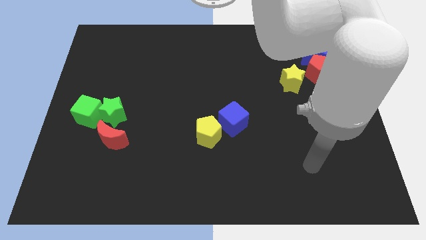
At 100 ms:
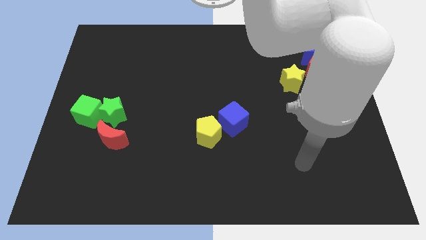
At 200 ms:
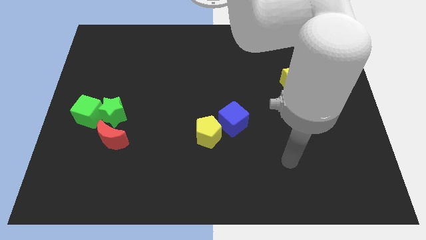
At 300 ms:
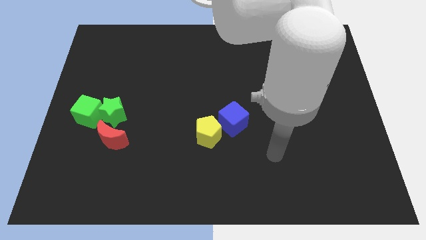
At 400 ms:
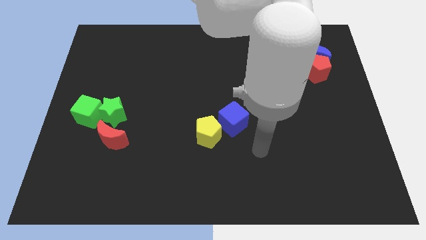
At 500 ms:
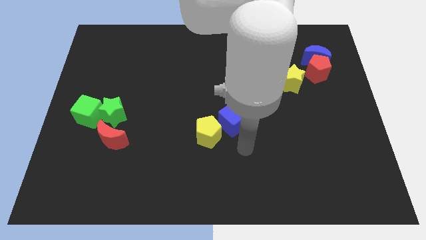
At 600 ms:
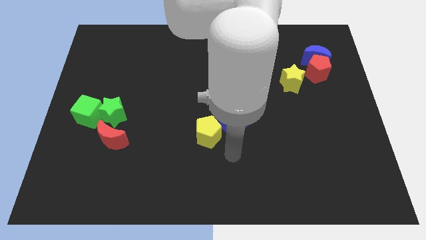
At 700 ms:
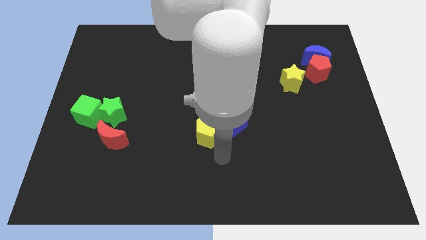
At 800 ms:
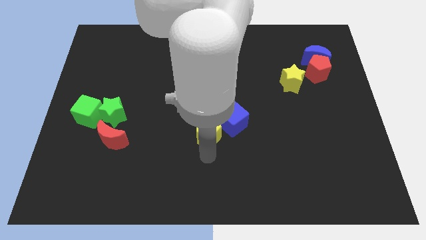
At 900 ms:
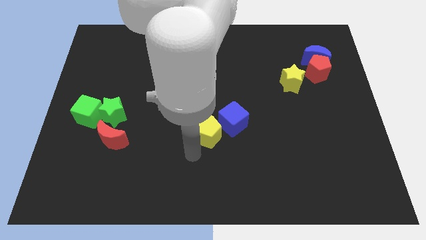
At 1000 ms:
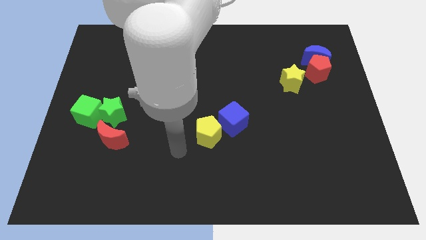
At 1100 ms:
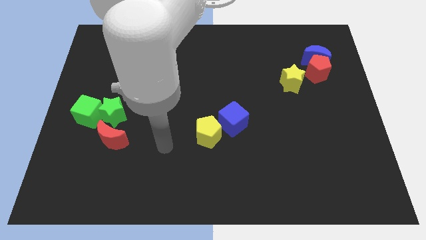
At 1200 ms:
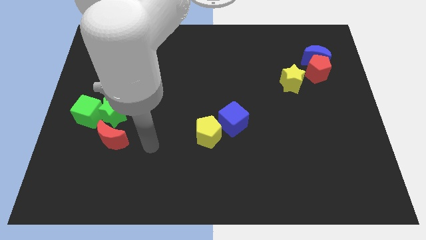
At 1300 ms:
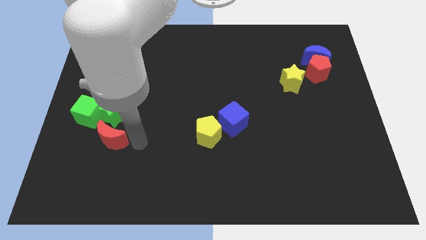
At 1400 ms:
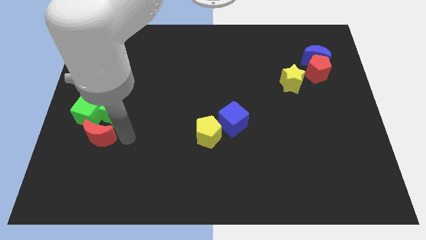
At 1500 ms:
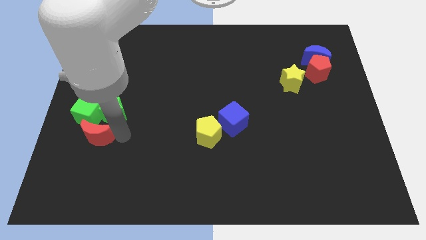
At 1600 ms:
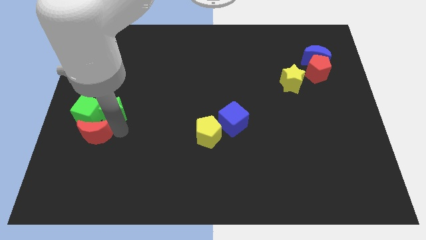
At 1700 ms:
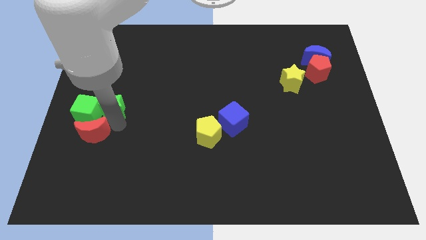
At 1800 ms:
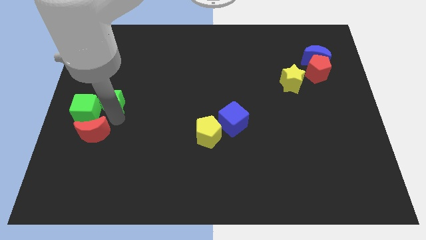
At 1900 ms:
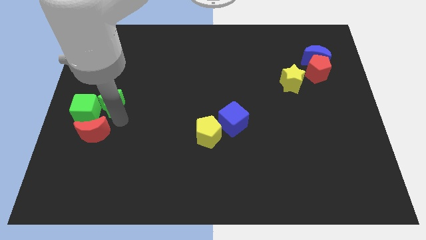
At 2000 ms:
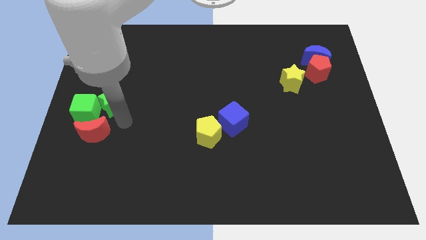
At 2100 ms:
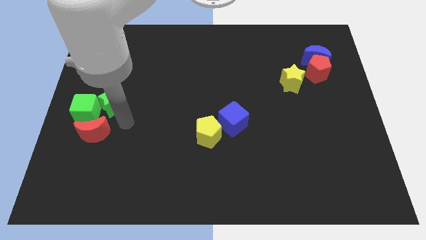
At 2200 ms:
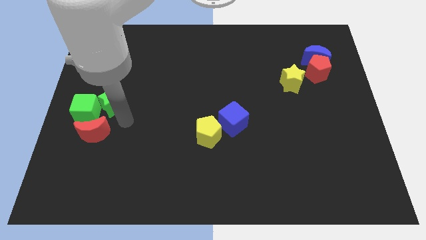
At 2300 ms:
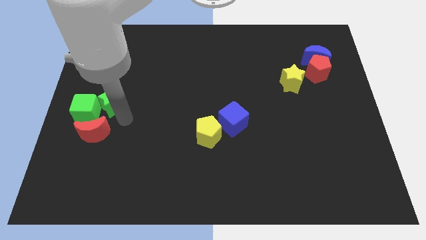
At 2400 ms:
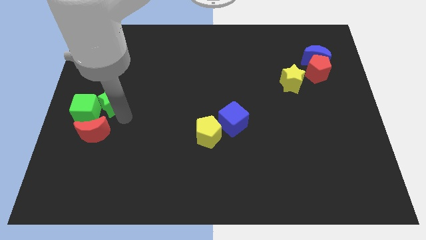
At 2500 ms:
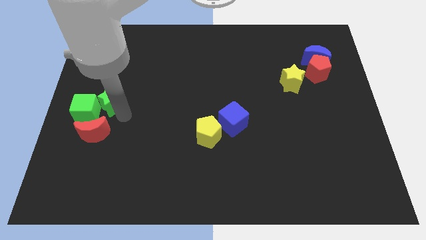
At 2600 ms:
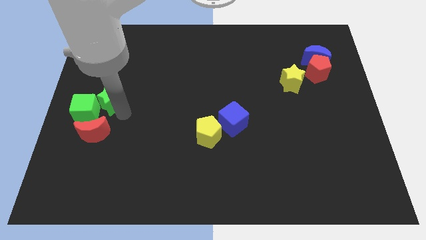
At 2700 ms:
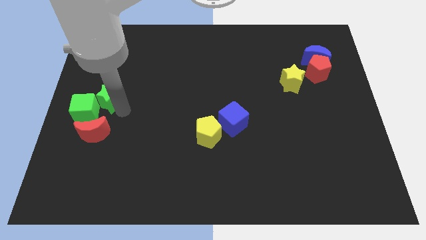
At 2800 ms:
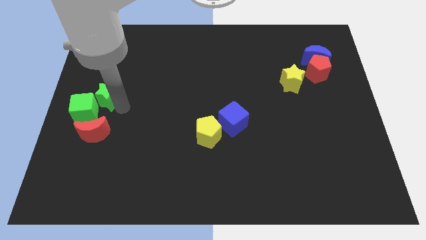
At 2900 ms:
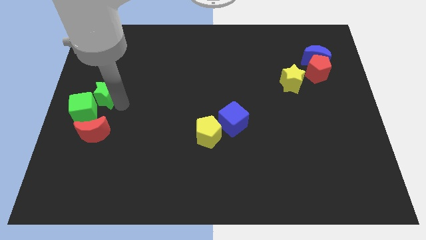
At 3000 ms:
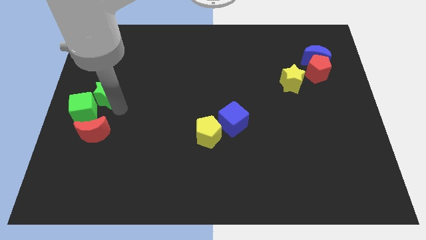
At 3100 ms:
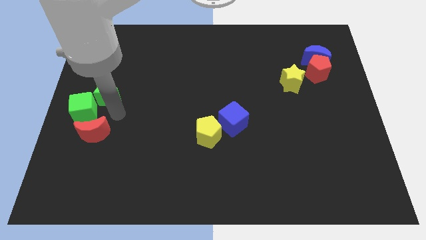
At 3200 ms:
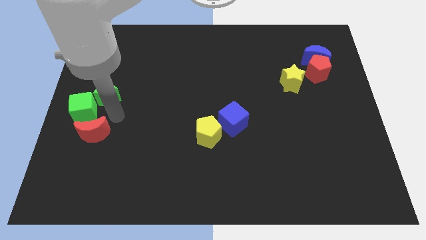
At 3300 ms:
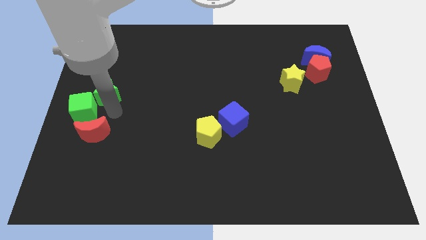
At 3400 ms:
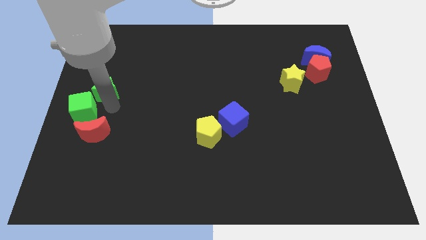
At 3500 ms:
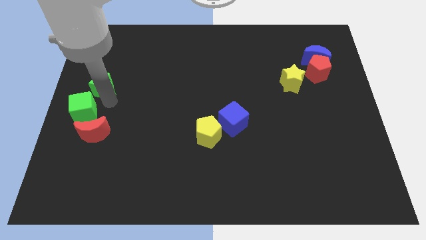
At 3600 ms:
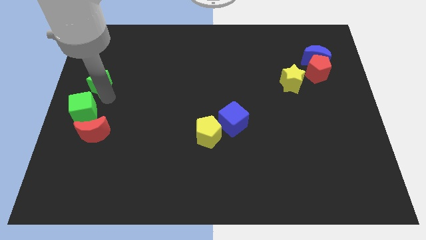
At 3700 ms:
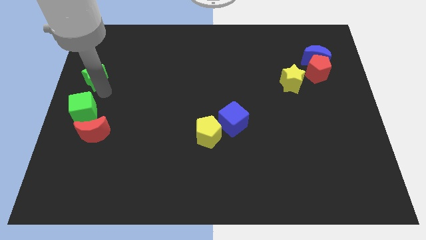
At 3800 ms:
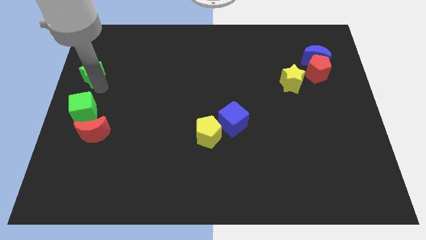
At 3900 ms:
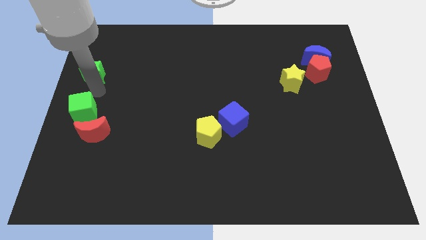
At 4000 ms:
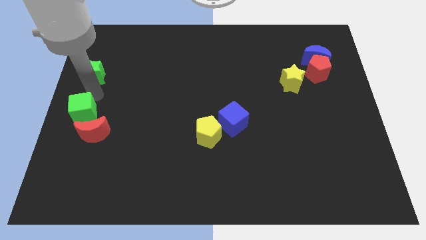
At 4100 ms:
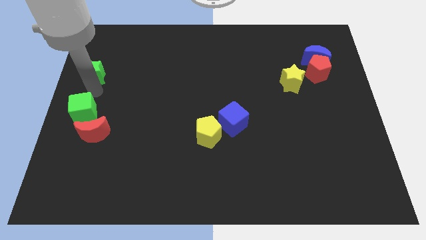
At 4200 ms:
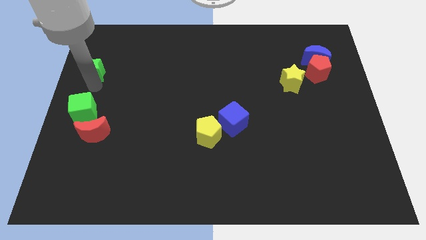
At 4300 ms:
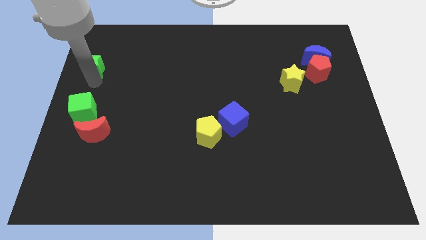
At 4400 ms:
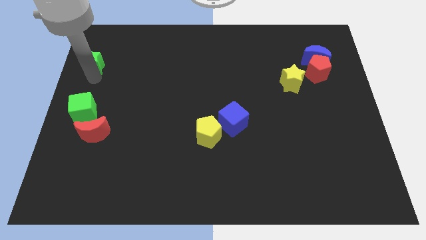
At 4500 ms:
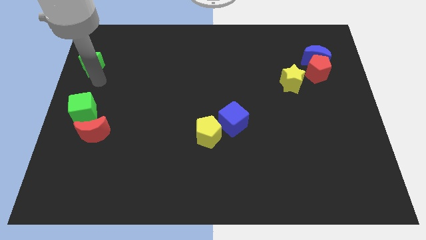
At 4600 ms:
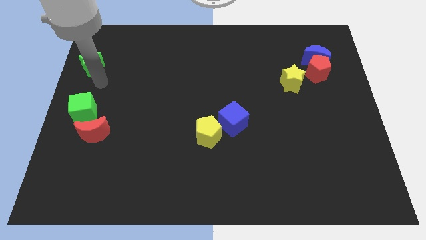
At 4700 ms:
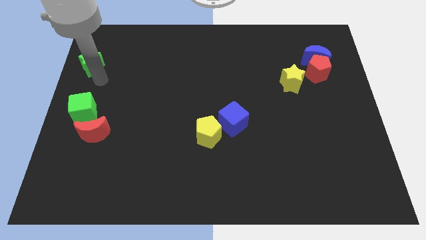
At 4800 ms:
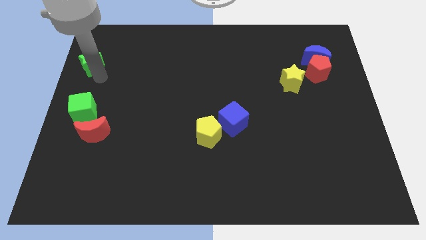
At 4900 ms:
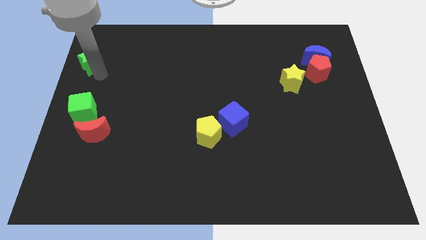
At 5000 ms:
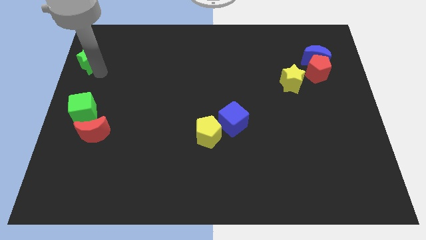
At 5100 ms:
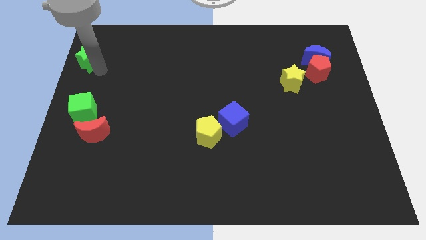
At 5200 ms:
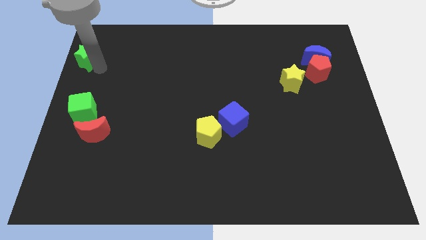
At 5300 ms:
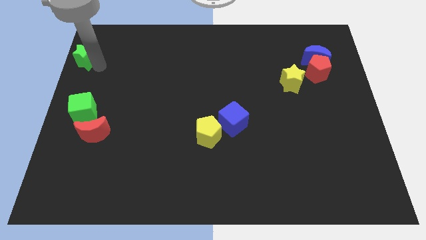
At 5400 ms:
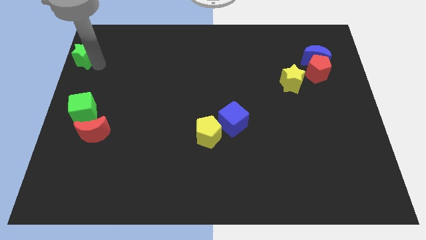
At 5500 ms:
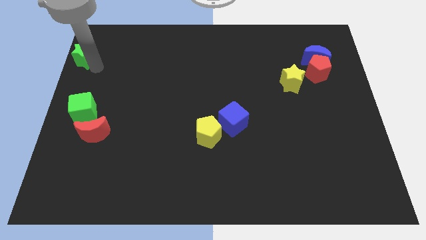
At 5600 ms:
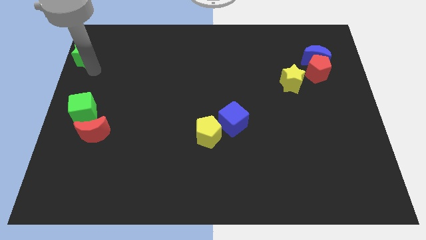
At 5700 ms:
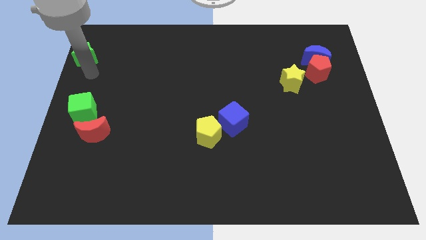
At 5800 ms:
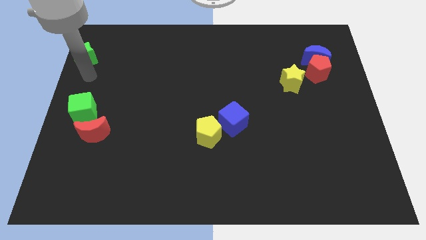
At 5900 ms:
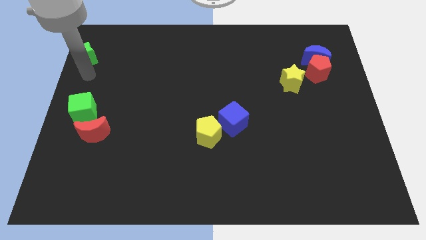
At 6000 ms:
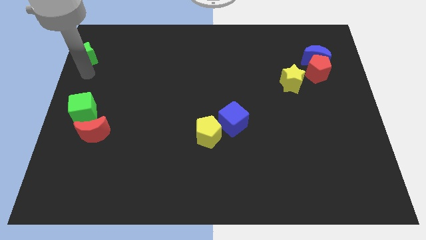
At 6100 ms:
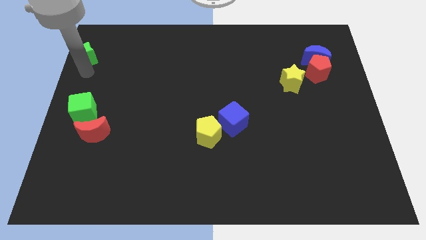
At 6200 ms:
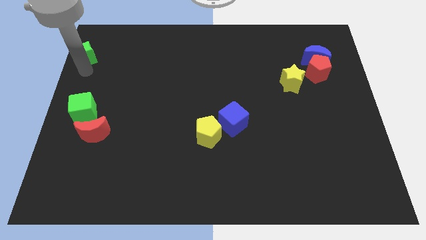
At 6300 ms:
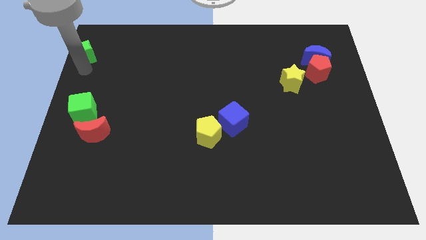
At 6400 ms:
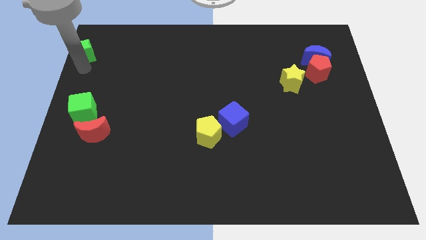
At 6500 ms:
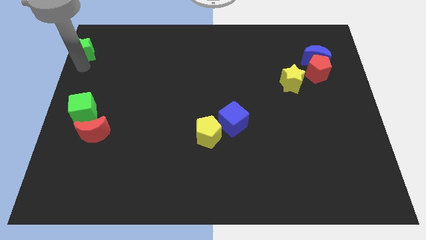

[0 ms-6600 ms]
move the green star to the top left of the board

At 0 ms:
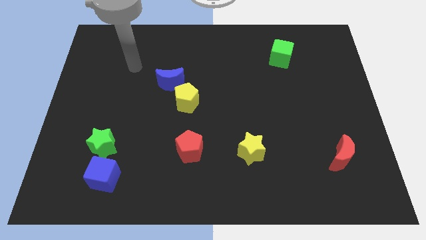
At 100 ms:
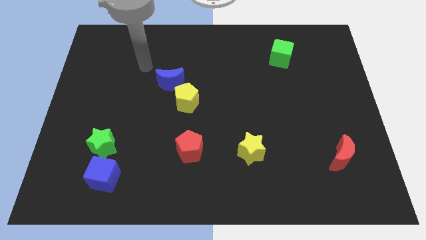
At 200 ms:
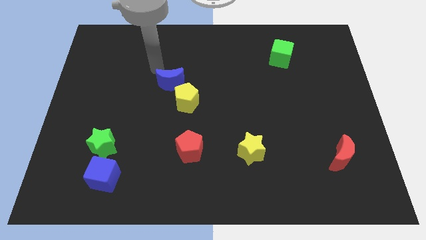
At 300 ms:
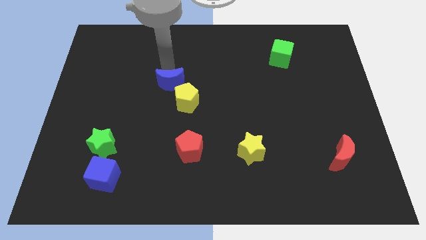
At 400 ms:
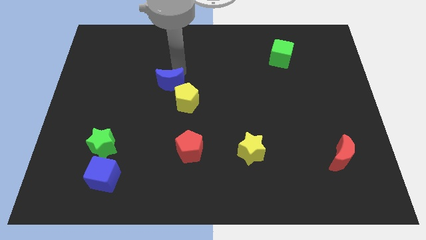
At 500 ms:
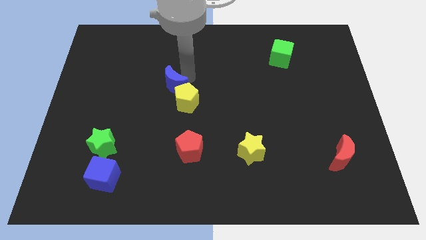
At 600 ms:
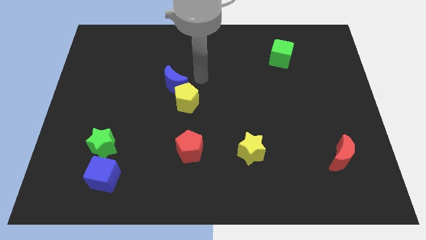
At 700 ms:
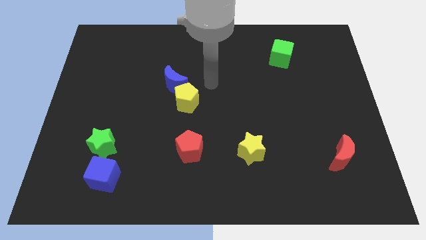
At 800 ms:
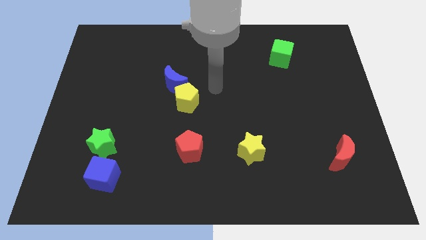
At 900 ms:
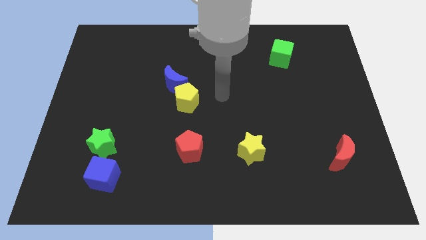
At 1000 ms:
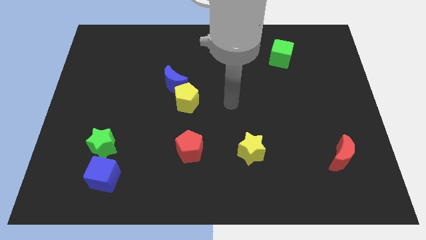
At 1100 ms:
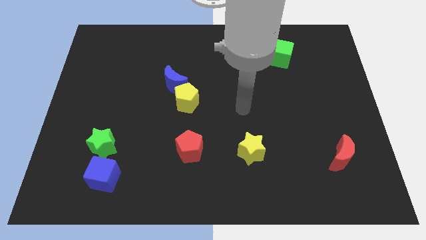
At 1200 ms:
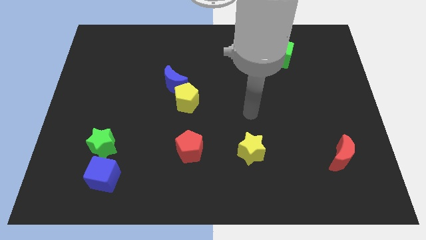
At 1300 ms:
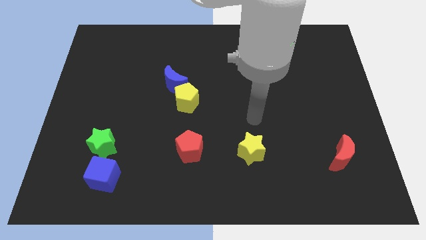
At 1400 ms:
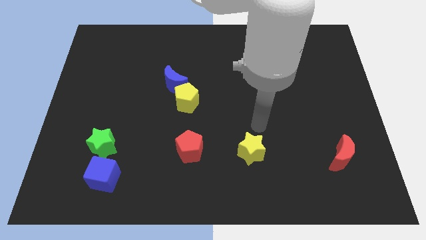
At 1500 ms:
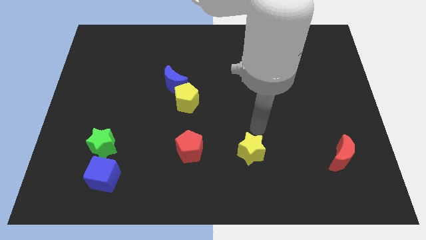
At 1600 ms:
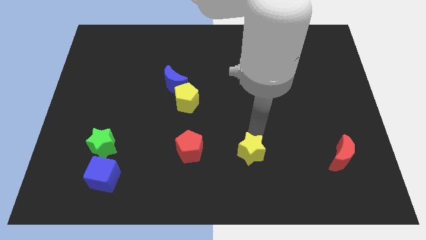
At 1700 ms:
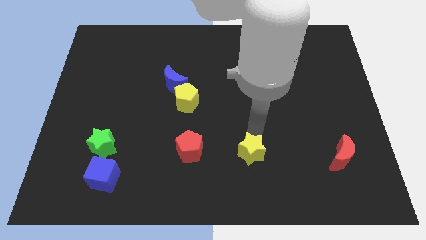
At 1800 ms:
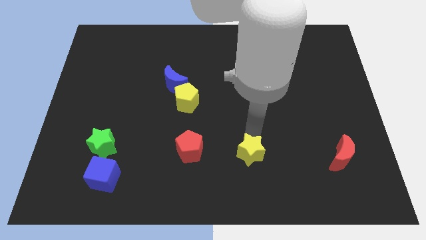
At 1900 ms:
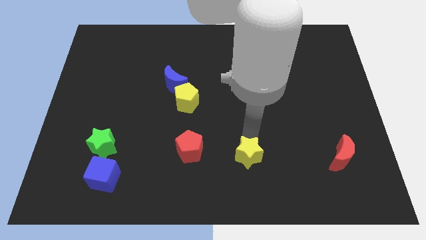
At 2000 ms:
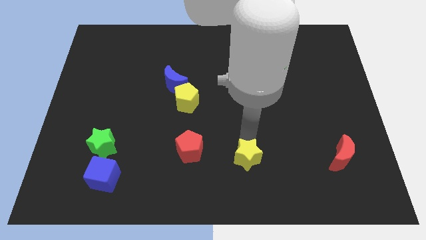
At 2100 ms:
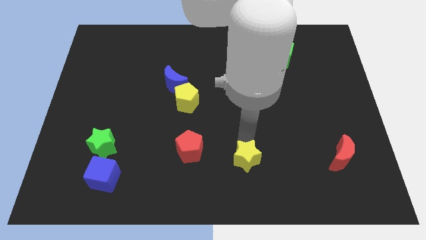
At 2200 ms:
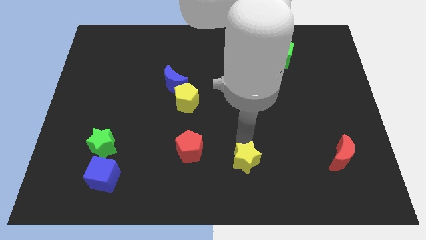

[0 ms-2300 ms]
put the yellow star to the bottom side
